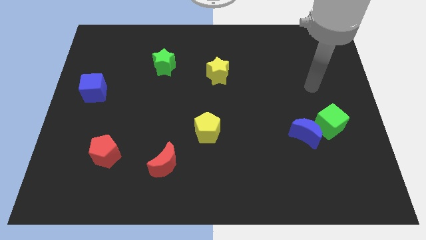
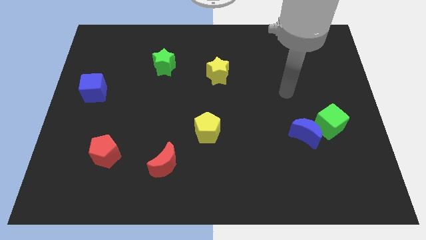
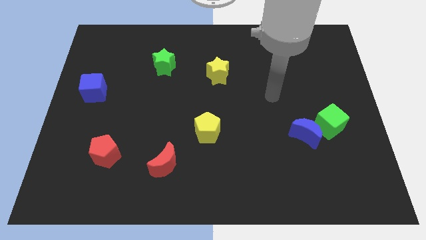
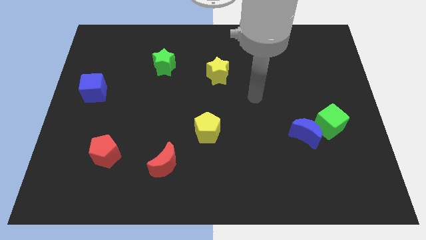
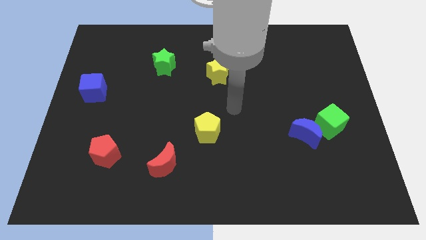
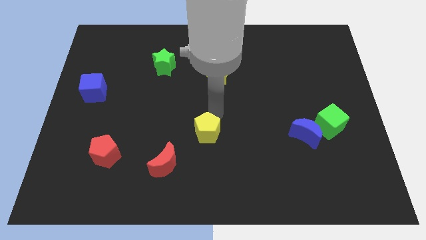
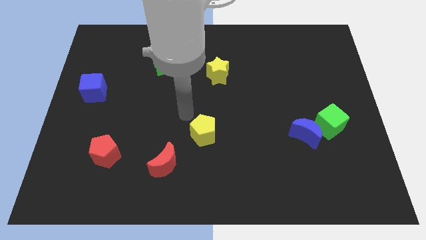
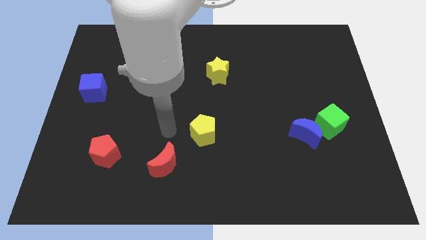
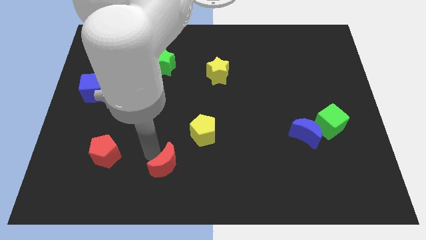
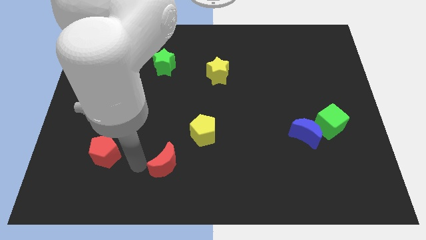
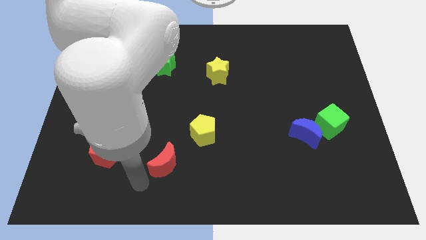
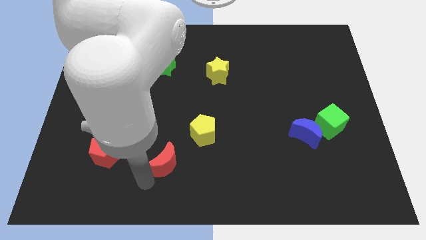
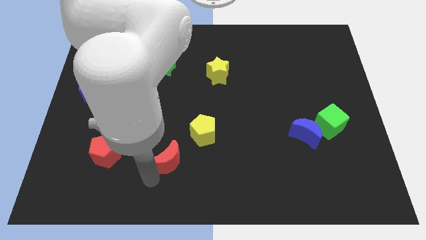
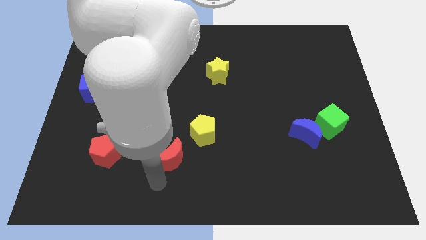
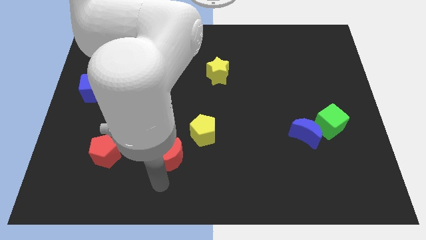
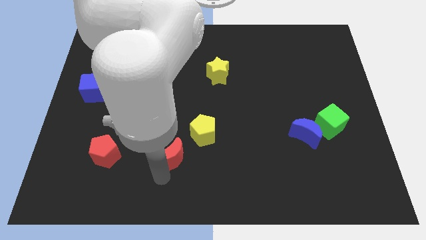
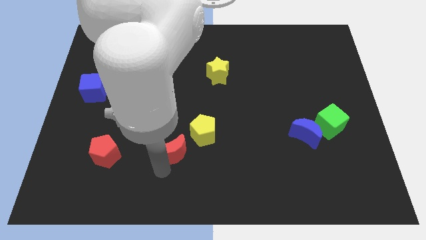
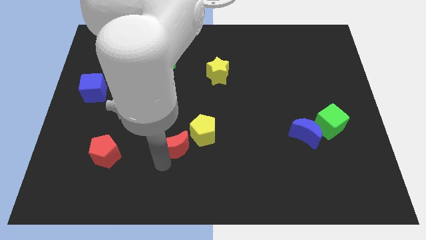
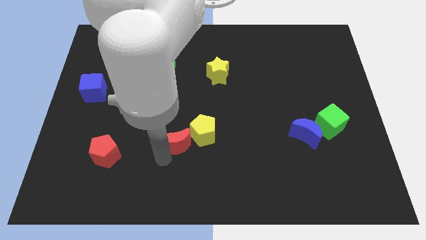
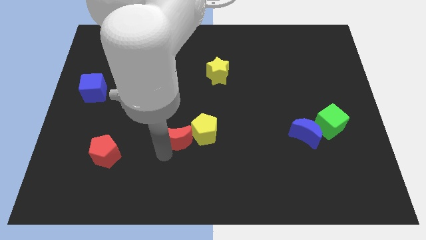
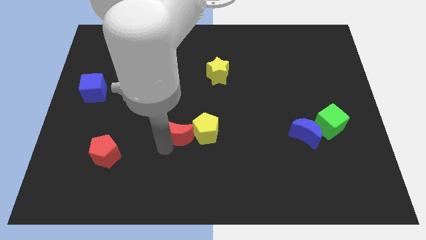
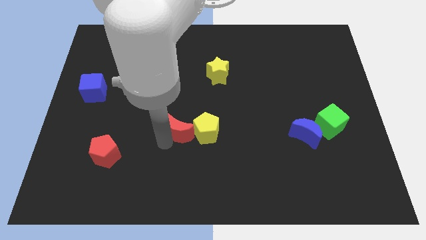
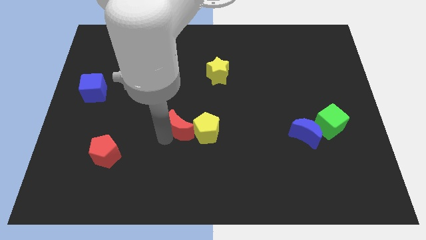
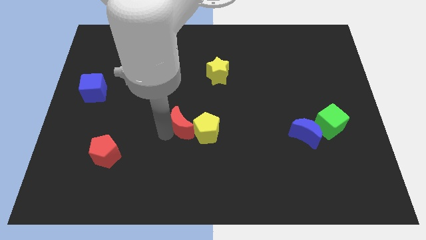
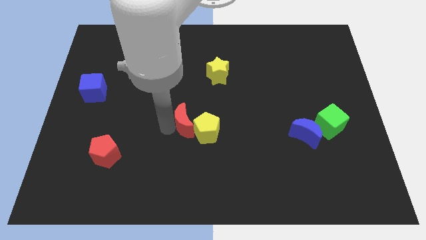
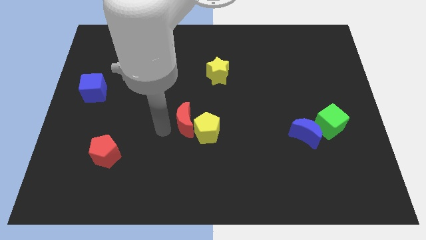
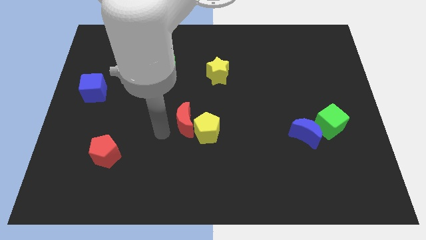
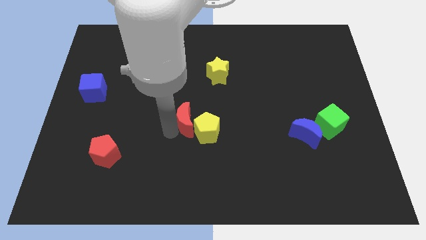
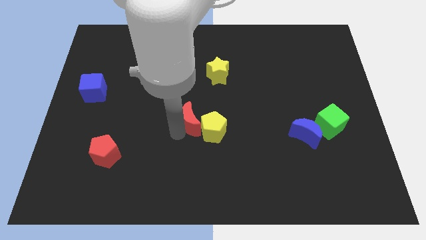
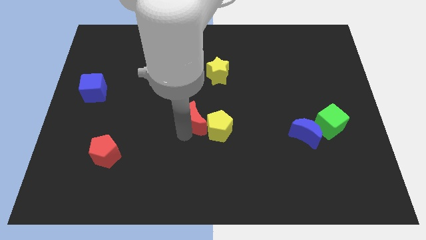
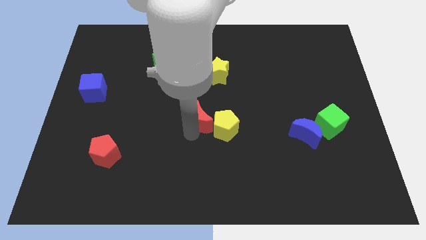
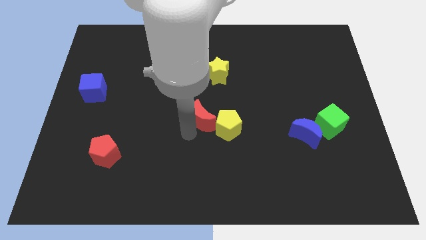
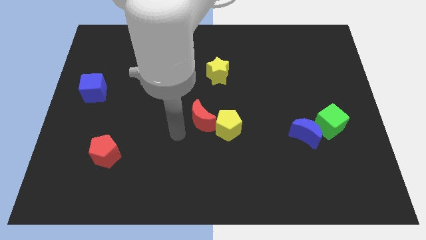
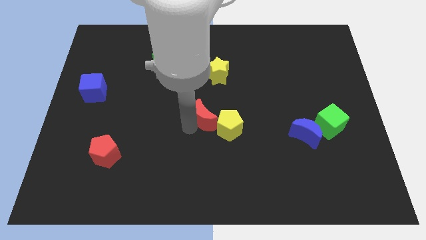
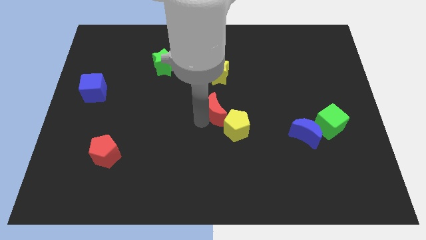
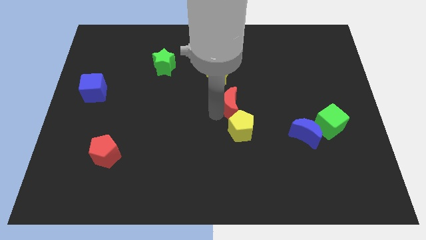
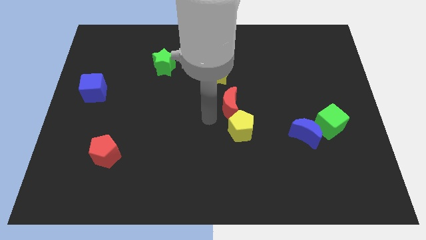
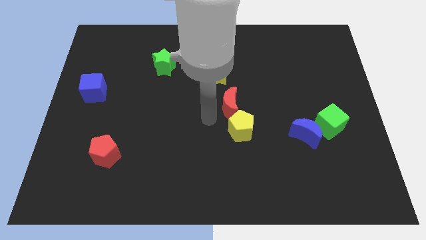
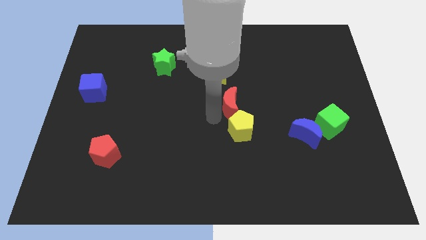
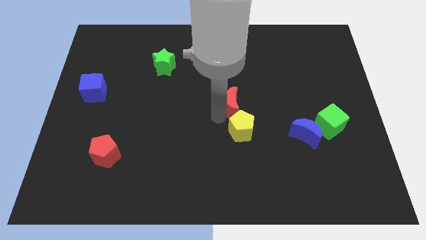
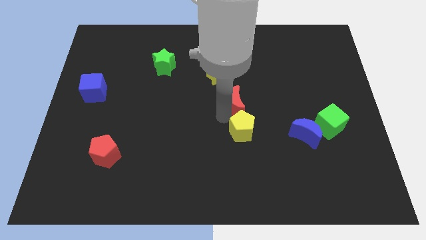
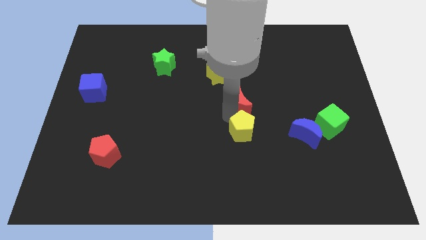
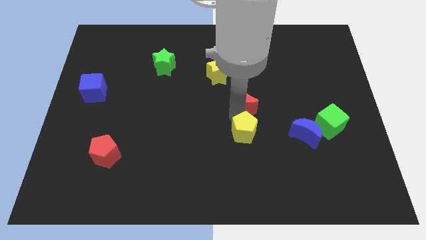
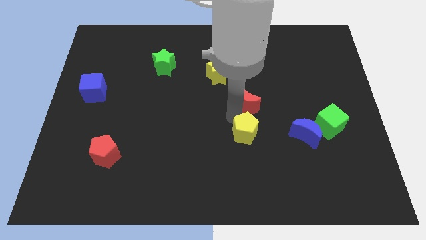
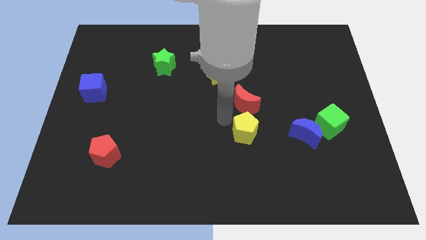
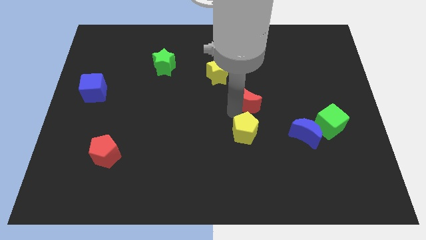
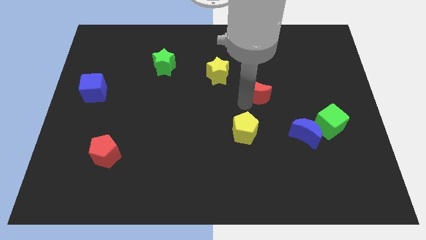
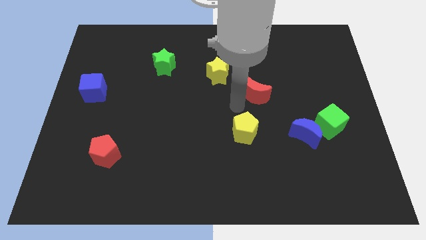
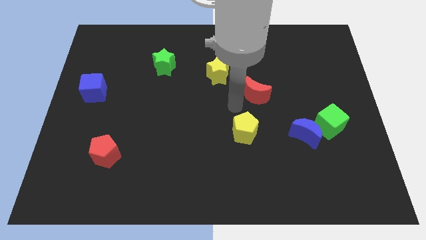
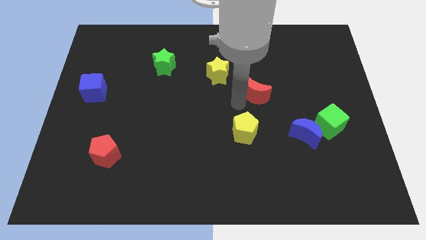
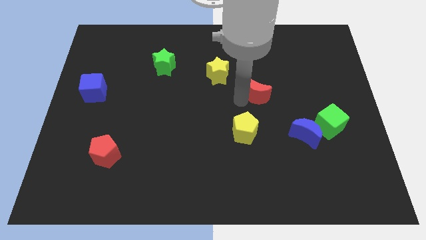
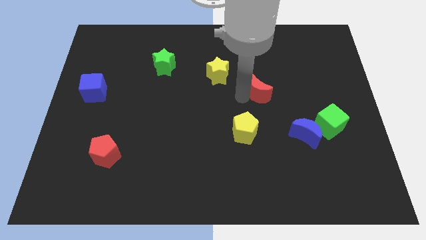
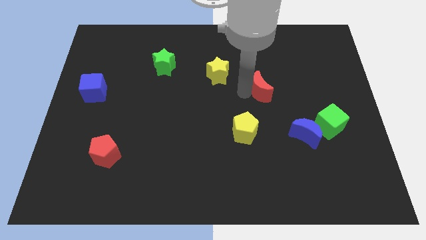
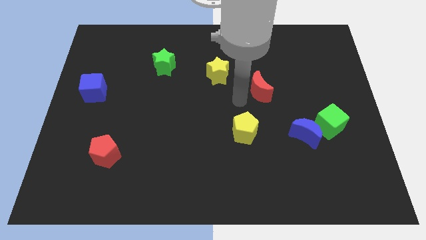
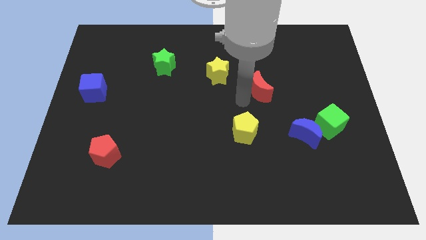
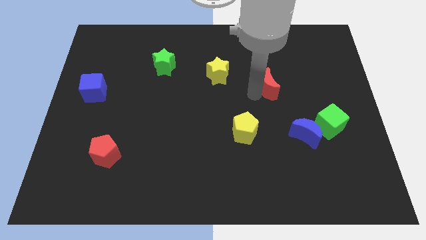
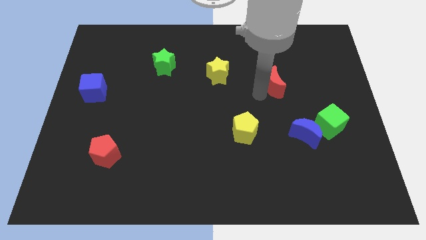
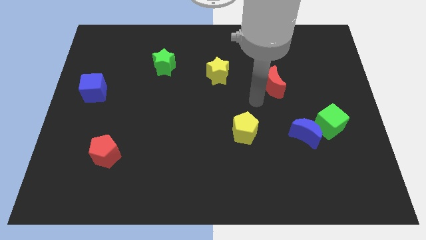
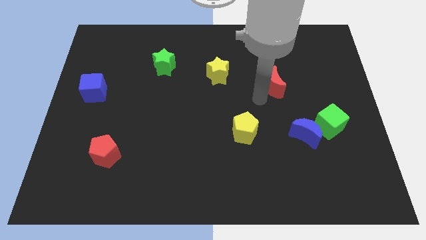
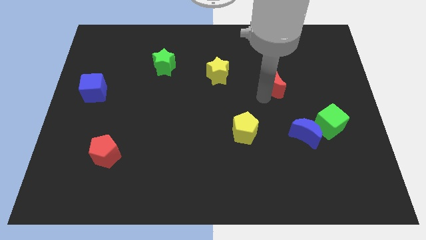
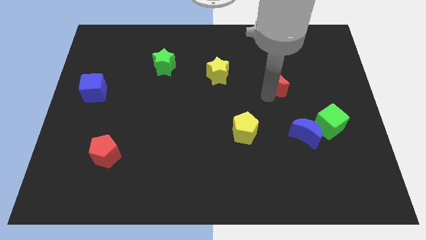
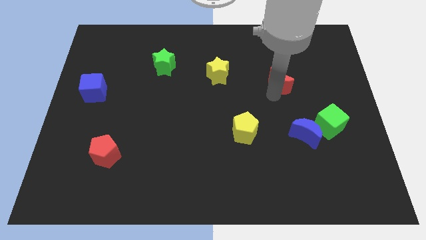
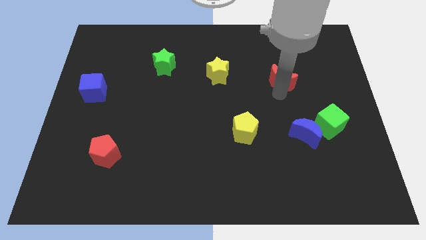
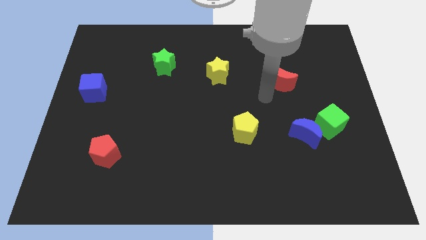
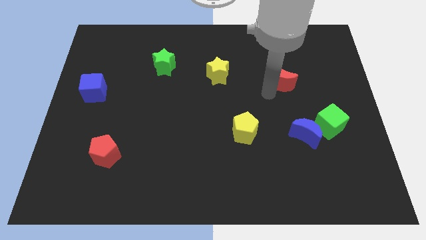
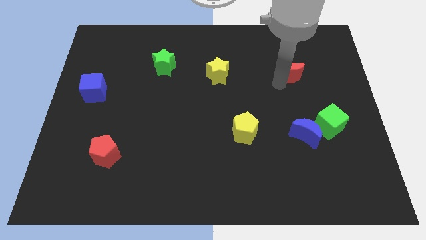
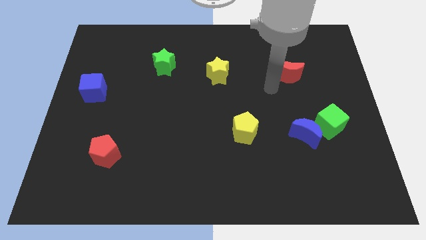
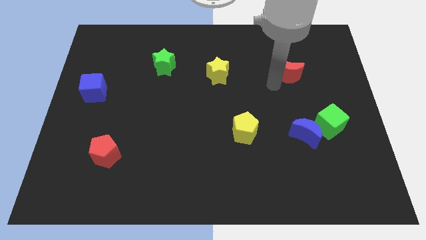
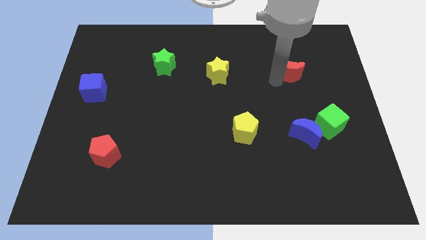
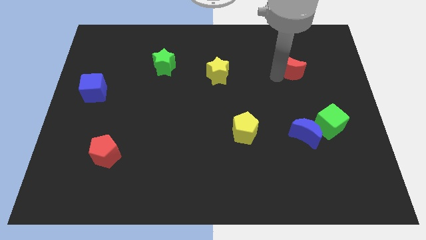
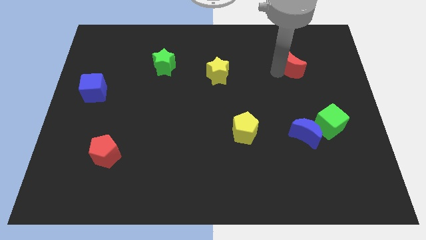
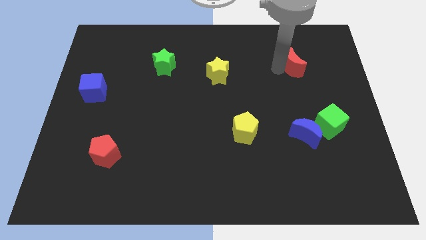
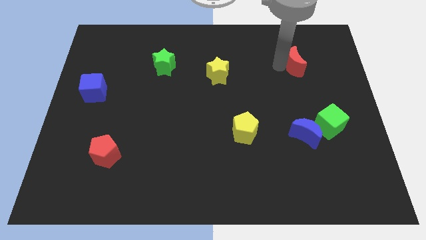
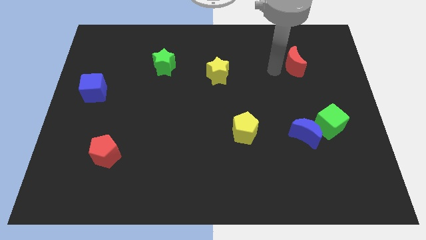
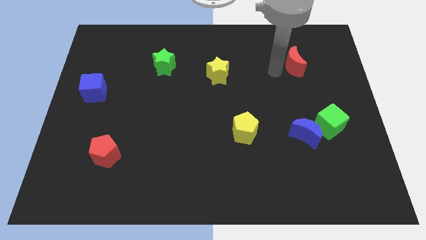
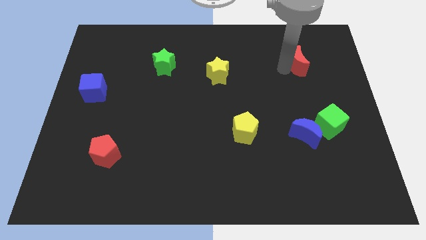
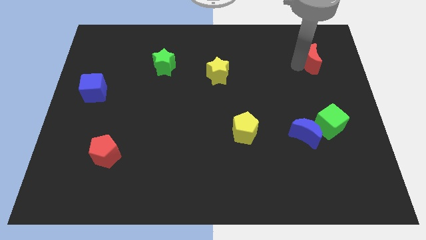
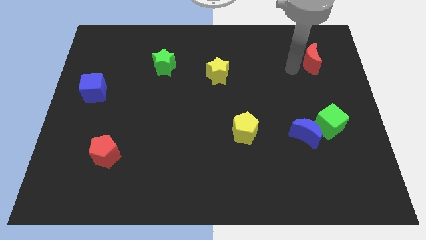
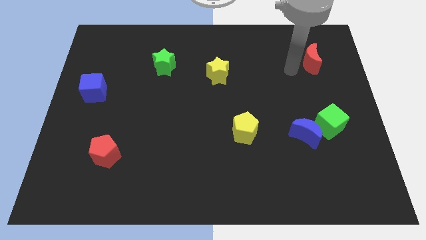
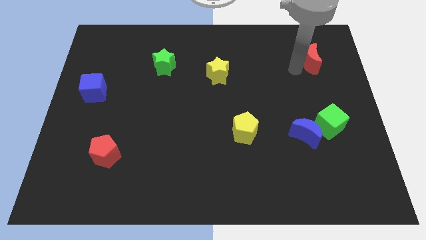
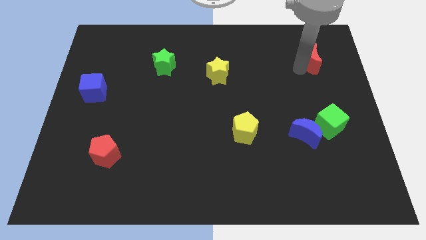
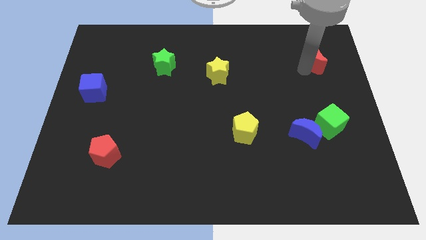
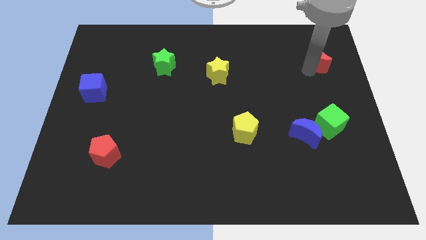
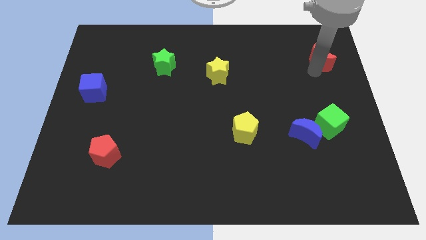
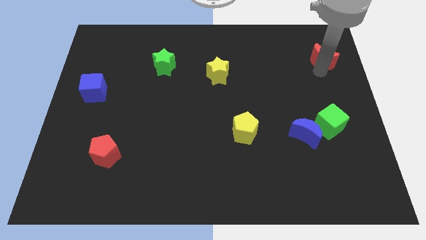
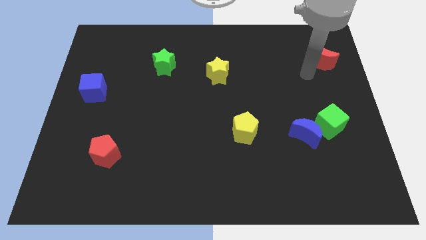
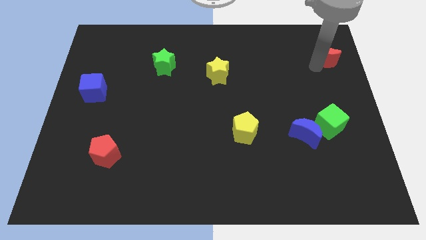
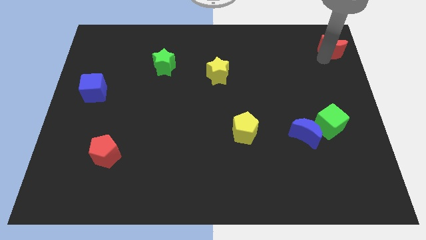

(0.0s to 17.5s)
push the red moon to the top right of the board
